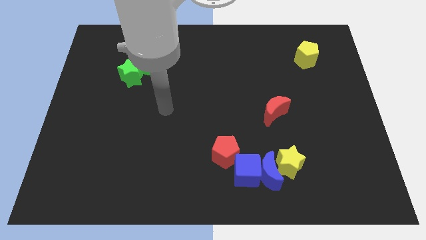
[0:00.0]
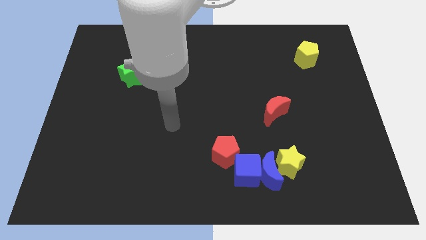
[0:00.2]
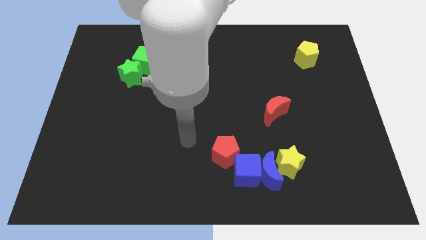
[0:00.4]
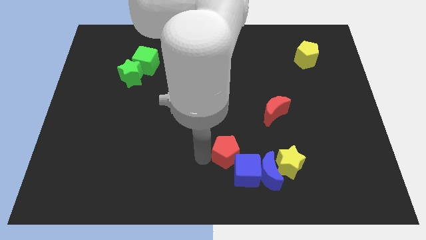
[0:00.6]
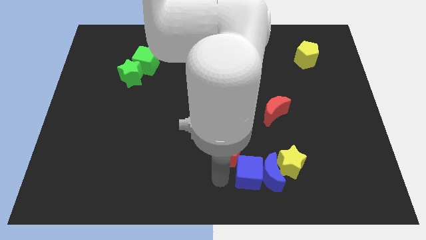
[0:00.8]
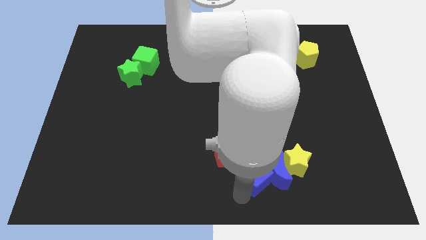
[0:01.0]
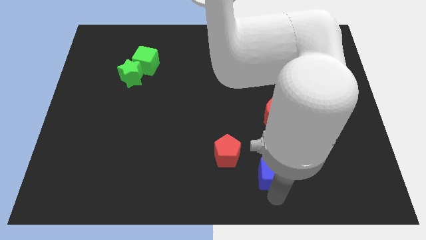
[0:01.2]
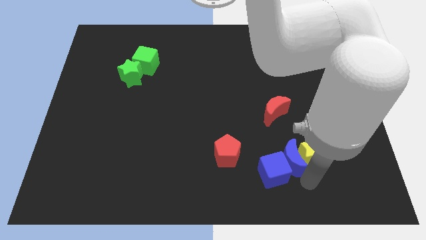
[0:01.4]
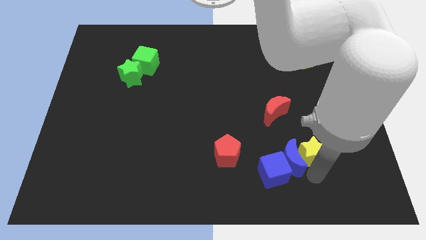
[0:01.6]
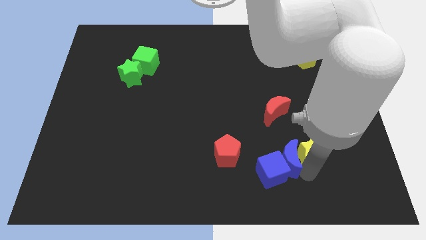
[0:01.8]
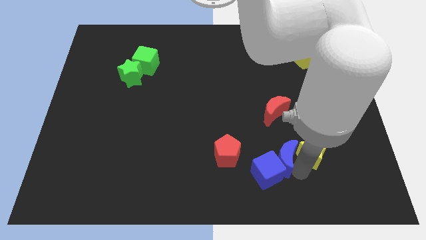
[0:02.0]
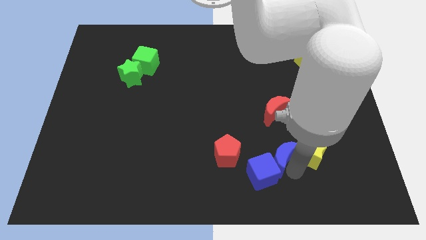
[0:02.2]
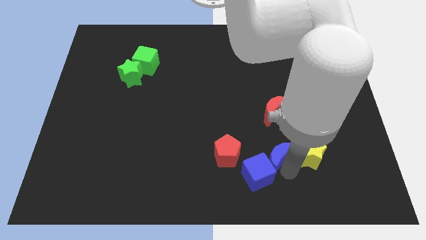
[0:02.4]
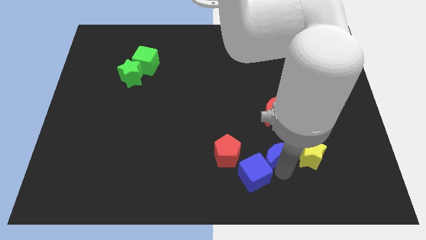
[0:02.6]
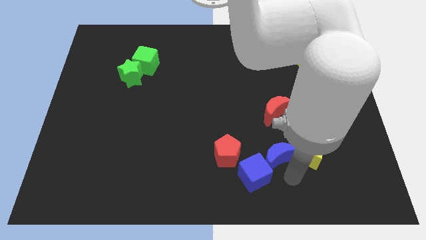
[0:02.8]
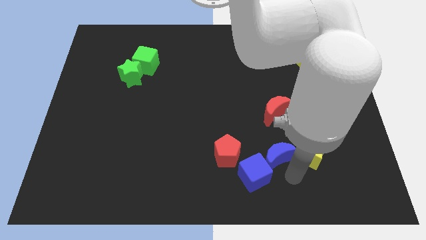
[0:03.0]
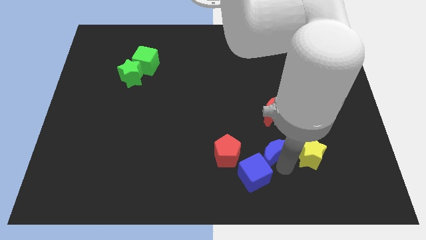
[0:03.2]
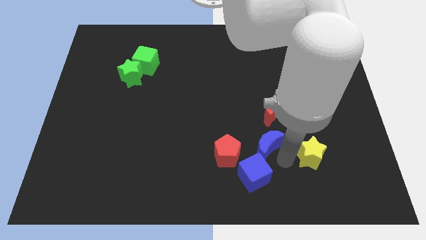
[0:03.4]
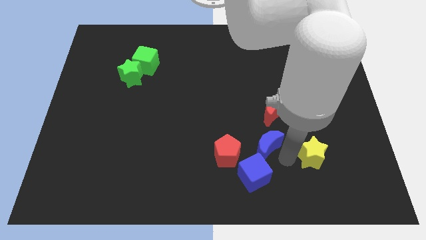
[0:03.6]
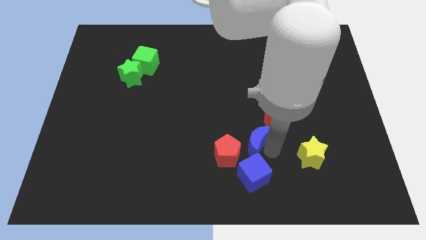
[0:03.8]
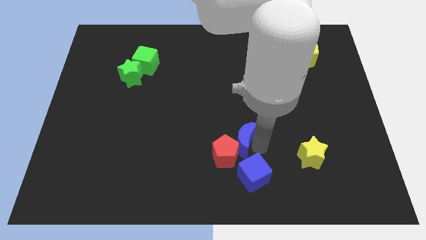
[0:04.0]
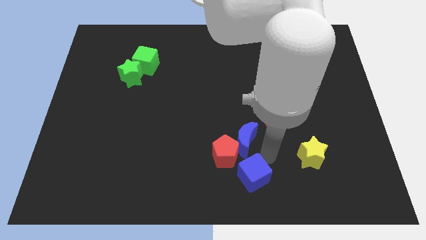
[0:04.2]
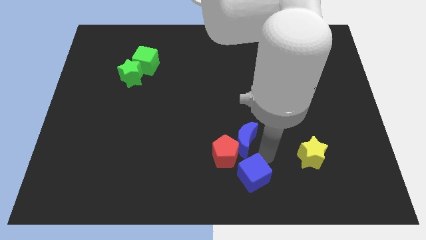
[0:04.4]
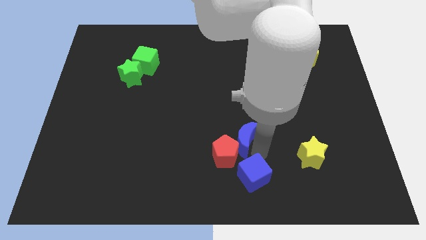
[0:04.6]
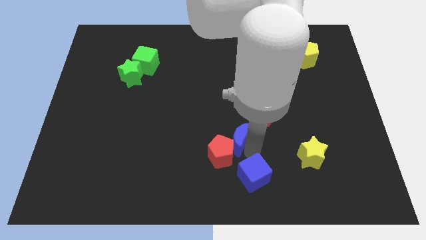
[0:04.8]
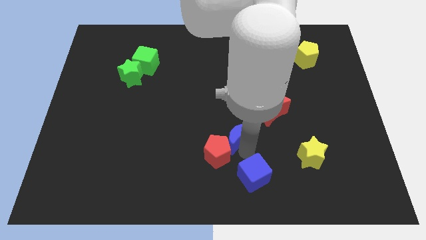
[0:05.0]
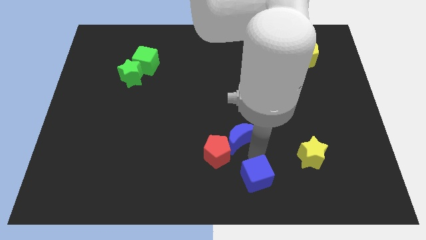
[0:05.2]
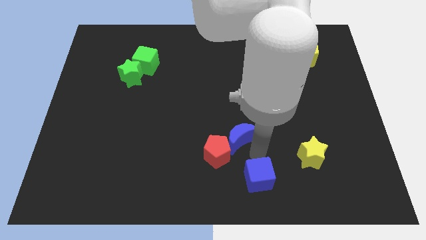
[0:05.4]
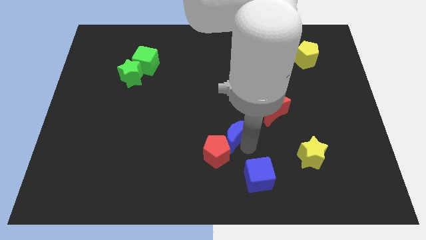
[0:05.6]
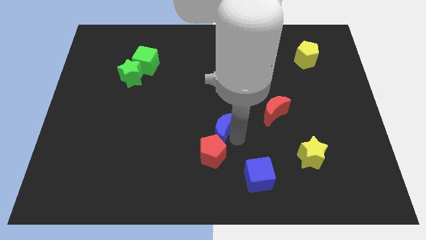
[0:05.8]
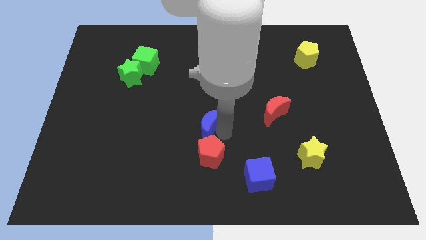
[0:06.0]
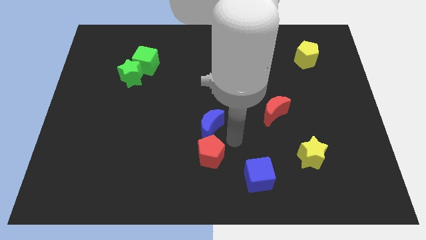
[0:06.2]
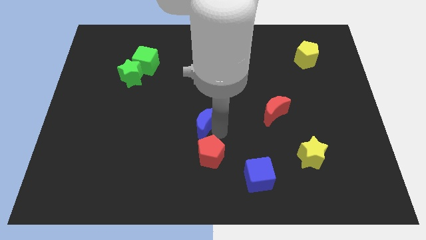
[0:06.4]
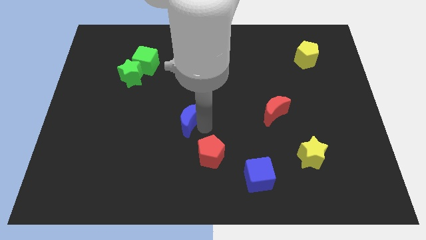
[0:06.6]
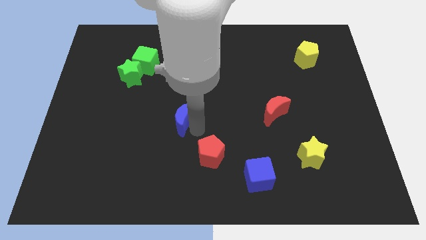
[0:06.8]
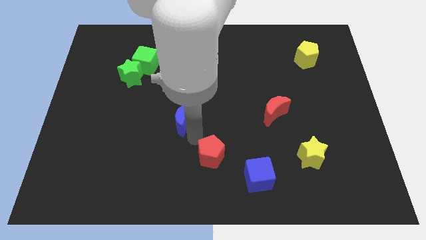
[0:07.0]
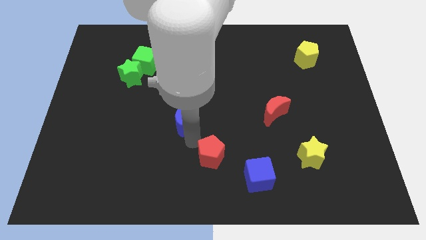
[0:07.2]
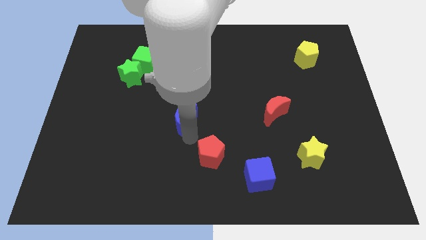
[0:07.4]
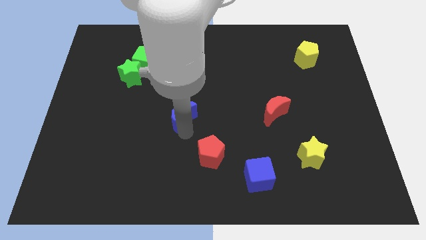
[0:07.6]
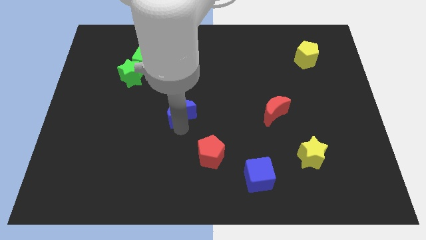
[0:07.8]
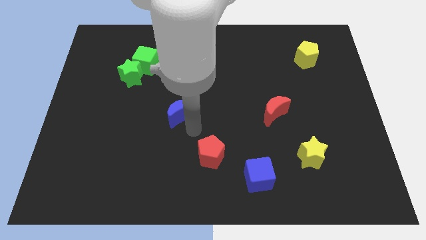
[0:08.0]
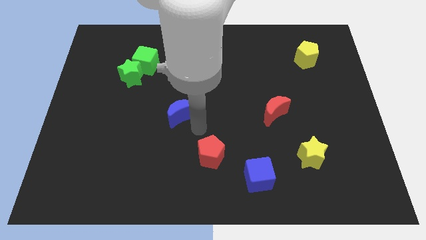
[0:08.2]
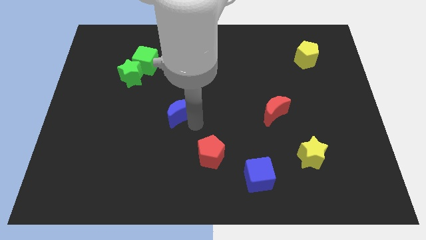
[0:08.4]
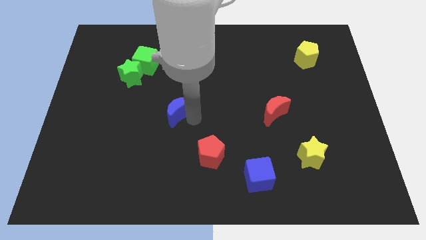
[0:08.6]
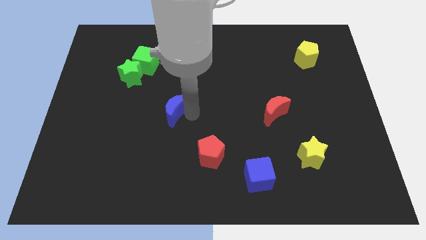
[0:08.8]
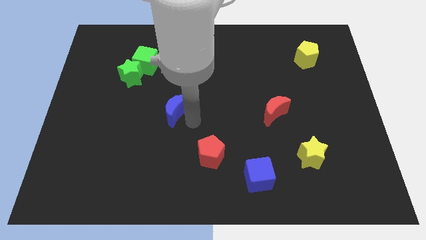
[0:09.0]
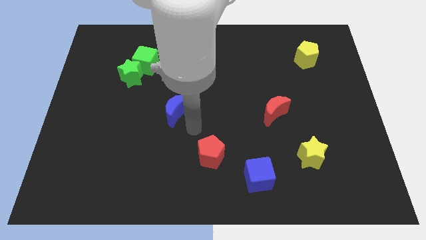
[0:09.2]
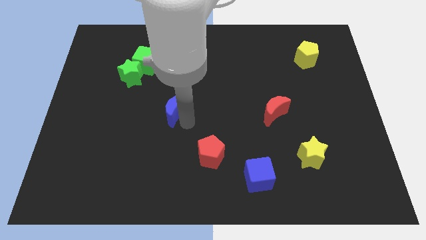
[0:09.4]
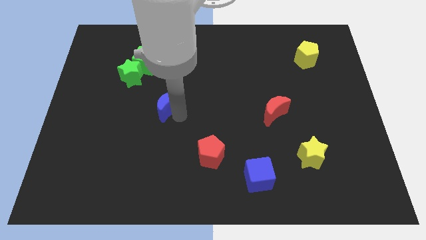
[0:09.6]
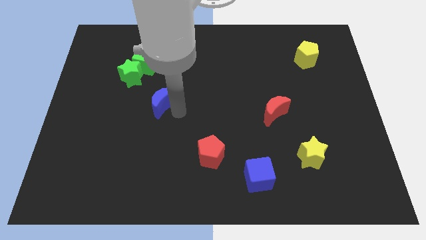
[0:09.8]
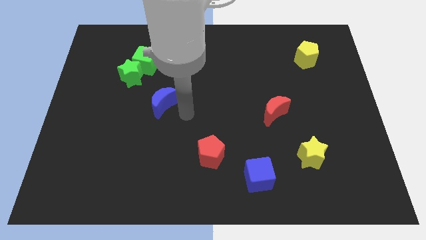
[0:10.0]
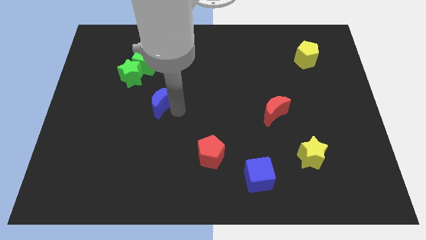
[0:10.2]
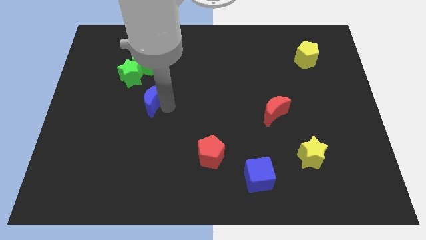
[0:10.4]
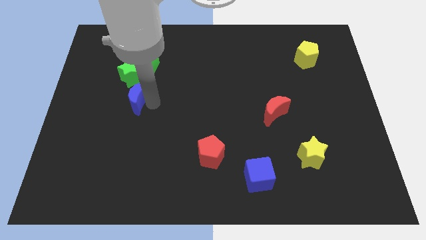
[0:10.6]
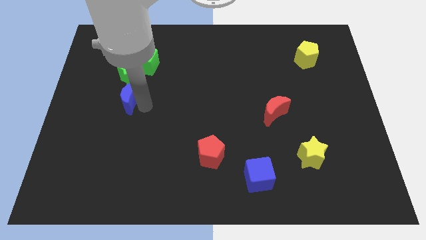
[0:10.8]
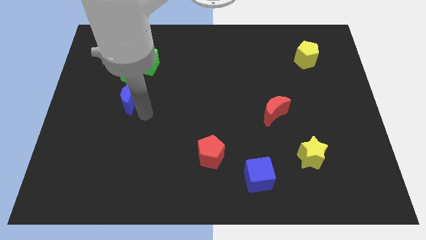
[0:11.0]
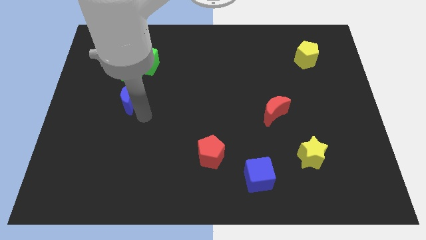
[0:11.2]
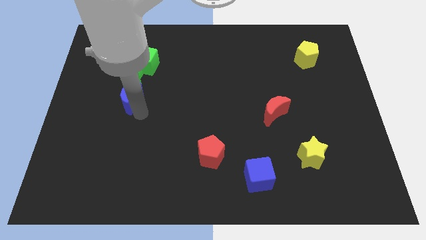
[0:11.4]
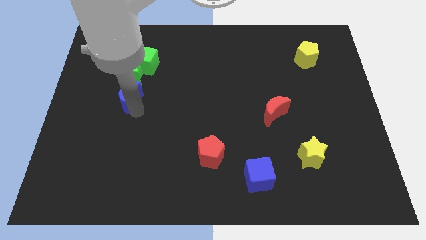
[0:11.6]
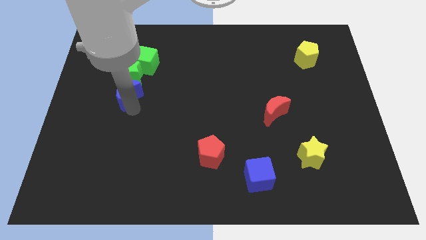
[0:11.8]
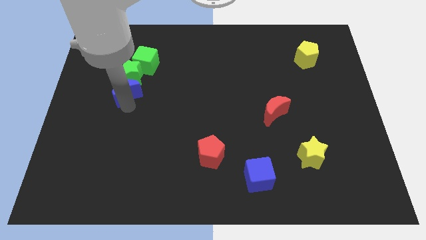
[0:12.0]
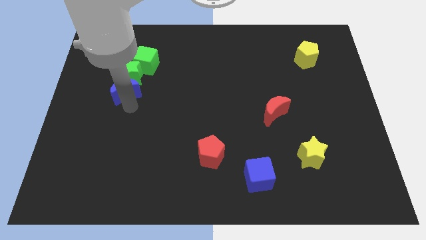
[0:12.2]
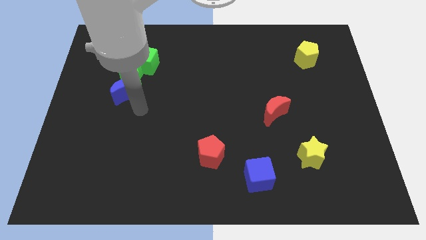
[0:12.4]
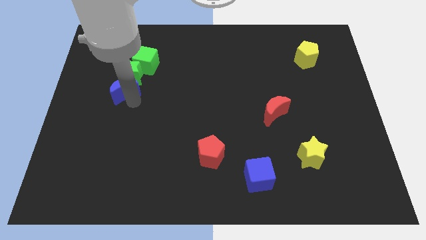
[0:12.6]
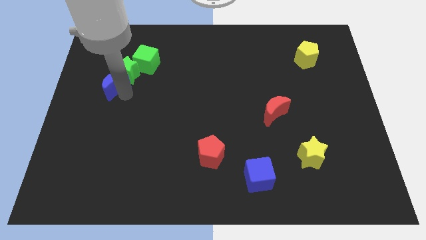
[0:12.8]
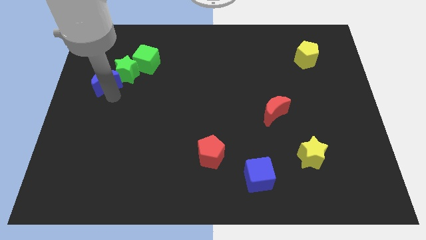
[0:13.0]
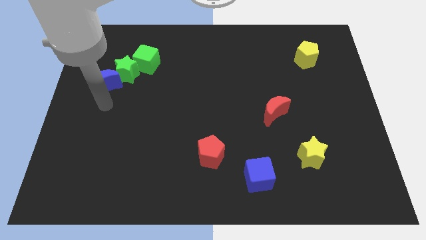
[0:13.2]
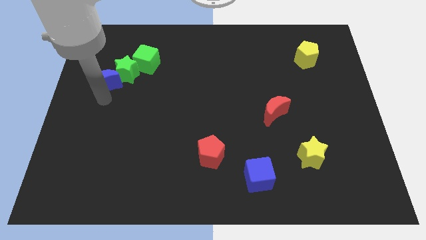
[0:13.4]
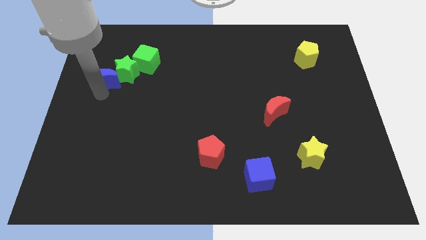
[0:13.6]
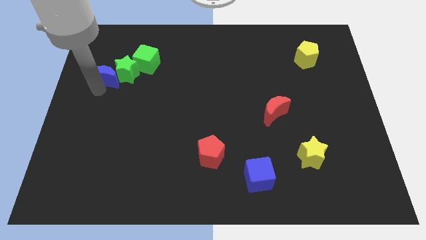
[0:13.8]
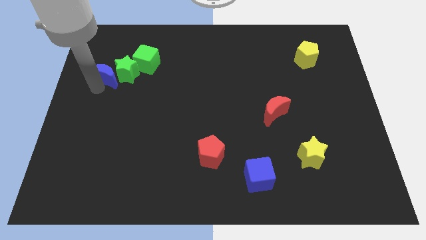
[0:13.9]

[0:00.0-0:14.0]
slide the blue moon to the top left of the green star

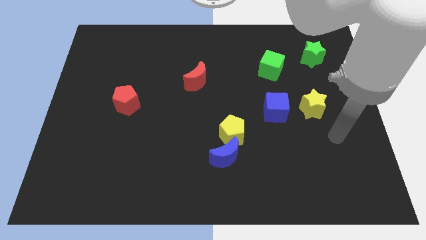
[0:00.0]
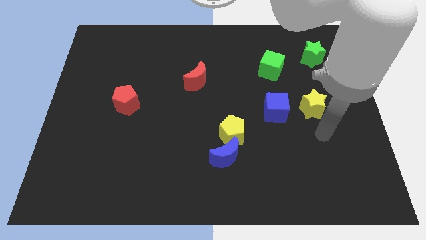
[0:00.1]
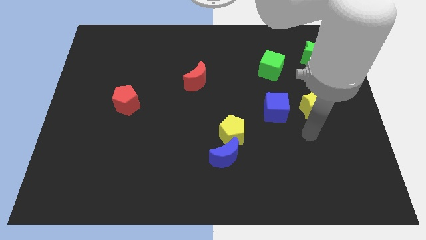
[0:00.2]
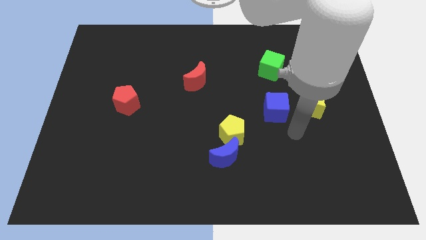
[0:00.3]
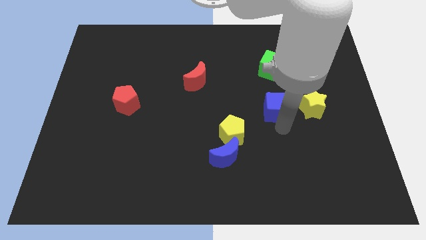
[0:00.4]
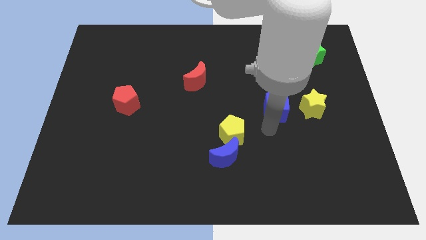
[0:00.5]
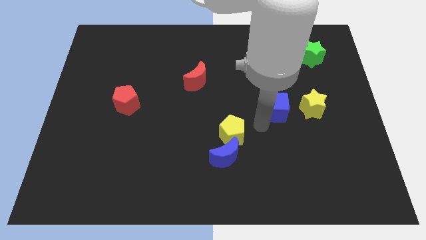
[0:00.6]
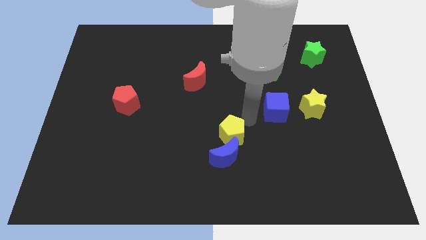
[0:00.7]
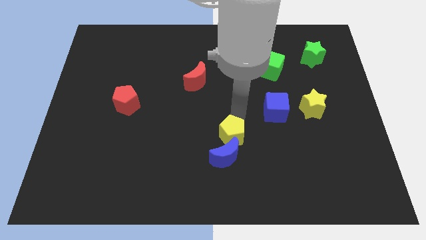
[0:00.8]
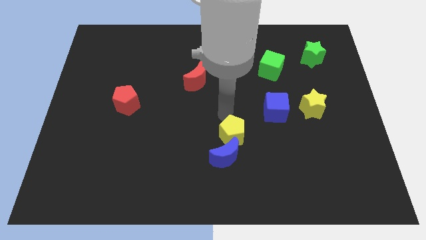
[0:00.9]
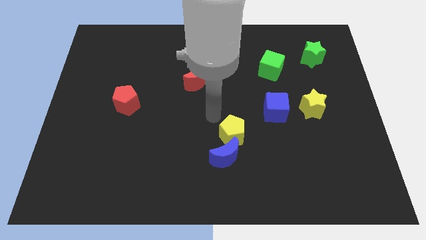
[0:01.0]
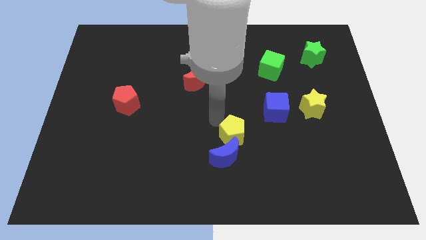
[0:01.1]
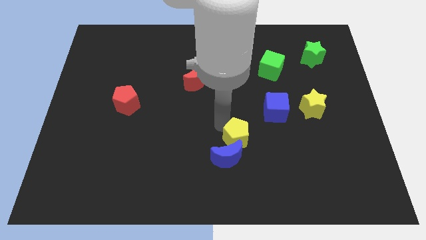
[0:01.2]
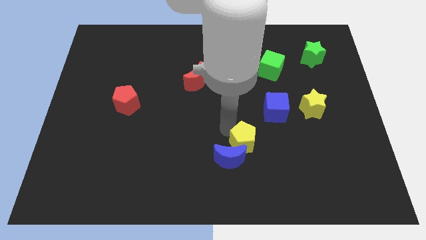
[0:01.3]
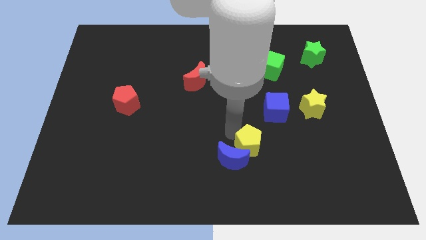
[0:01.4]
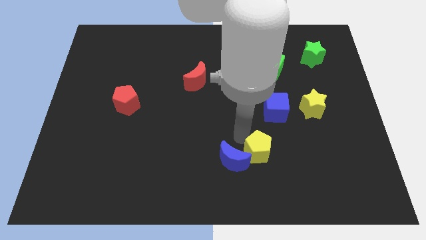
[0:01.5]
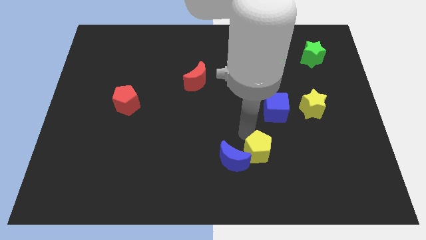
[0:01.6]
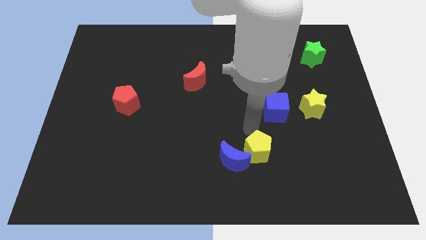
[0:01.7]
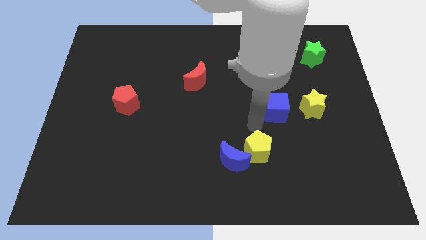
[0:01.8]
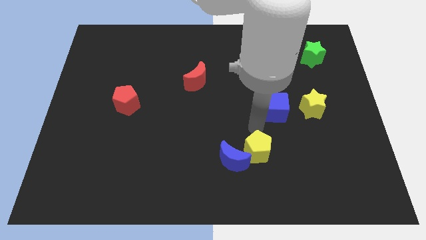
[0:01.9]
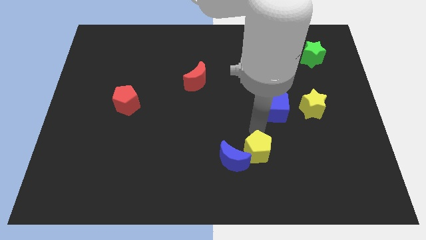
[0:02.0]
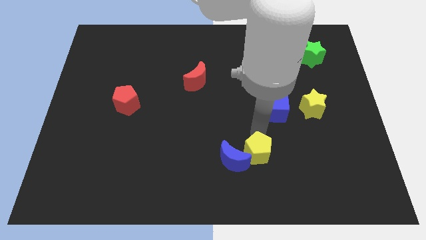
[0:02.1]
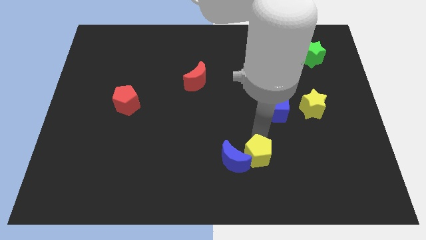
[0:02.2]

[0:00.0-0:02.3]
put the yellow pentagon to the bottom right side of the blue moon
